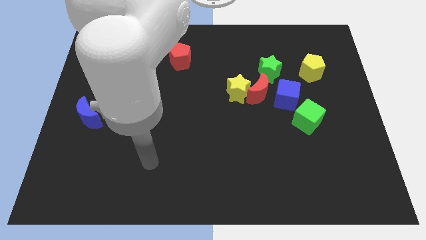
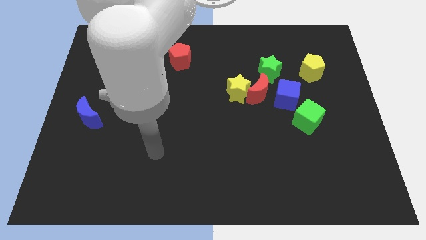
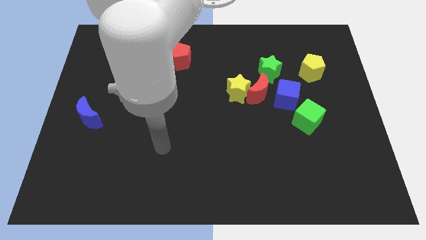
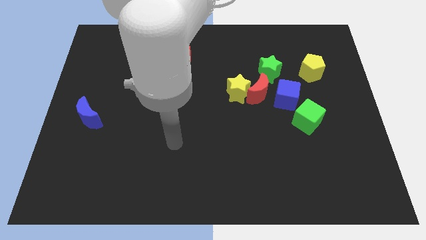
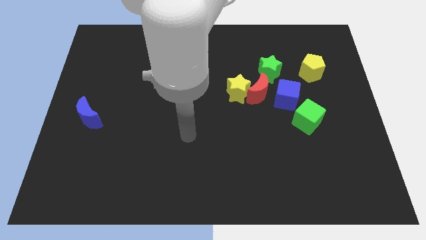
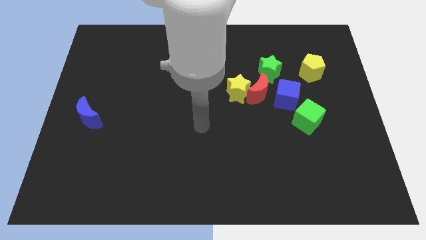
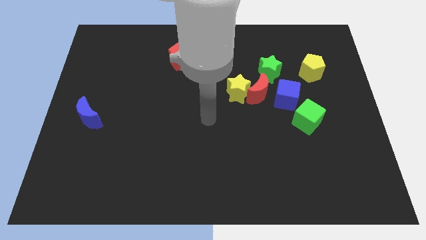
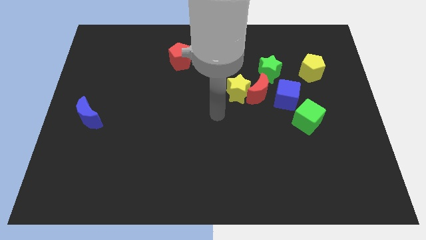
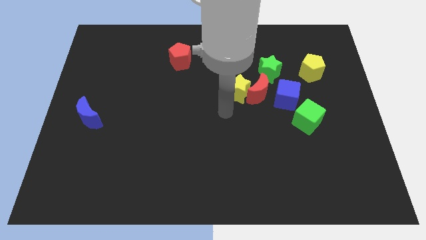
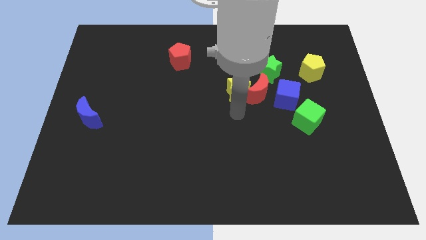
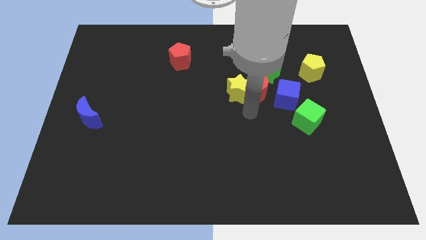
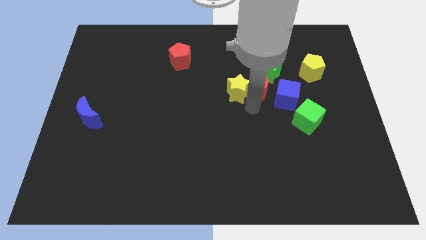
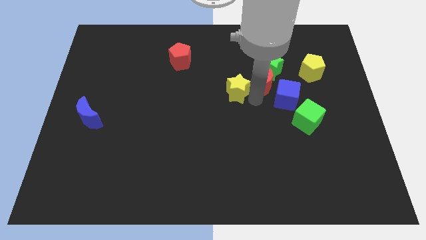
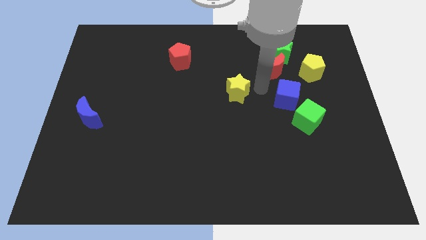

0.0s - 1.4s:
move the yellow star away from the red moon

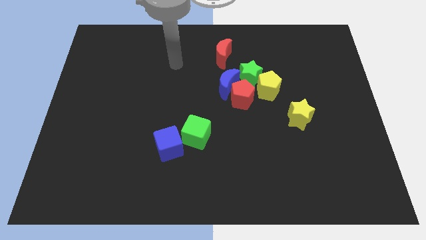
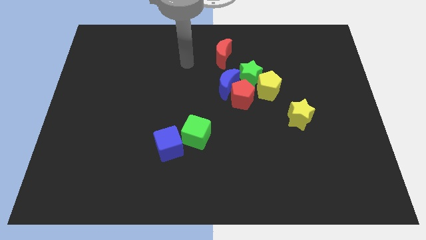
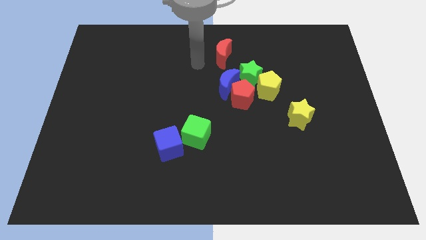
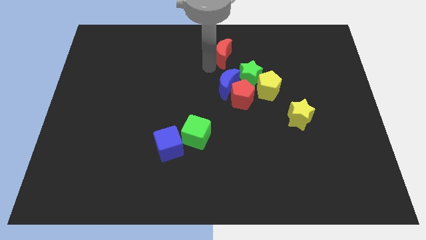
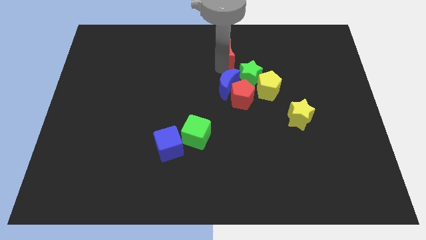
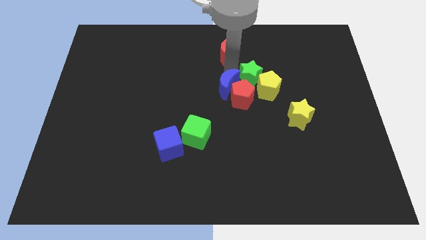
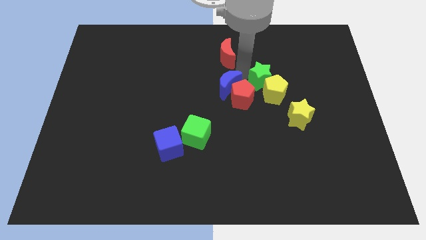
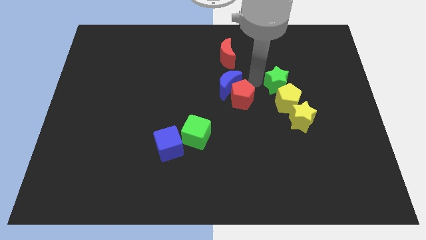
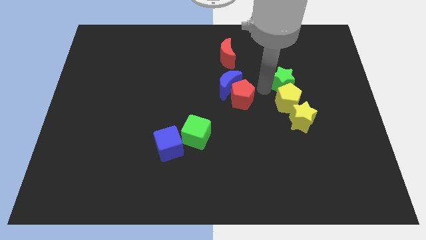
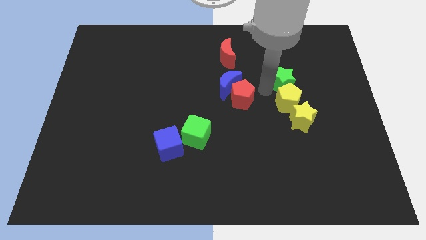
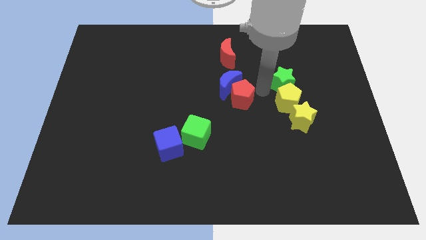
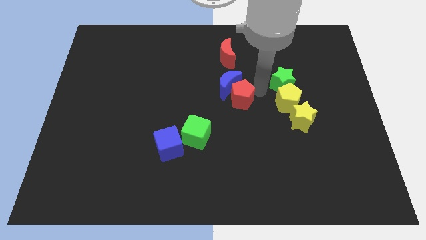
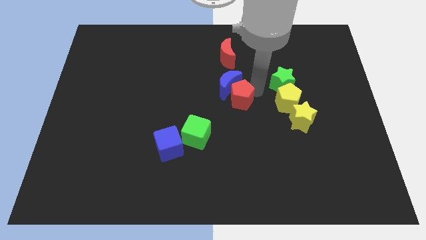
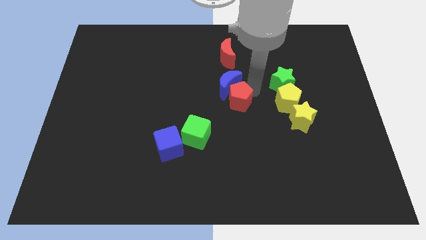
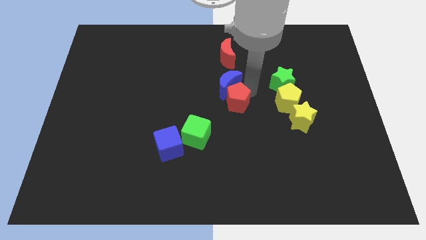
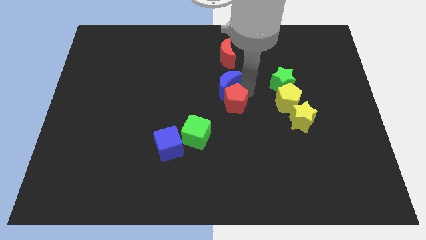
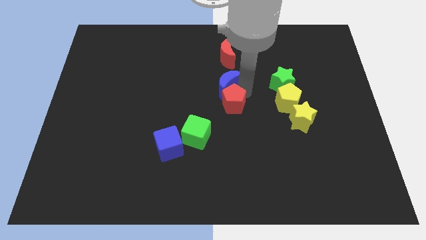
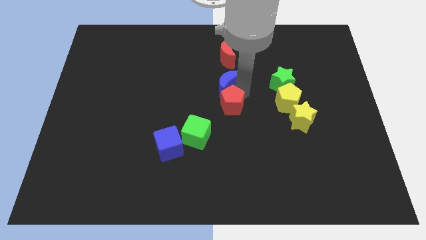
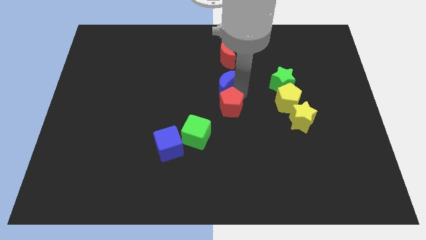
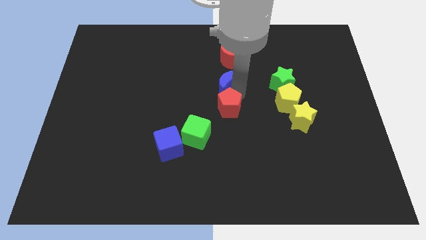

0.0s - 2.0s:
move the red pentagon away from the group

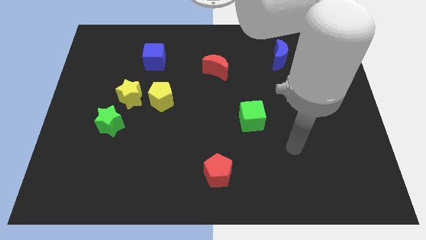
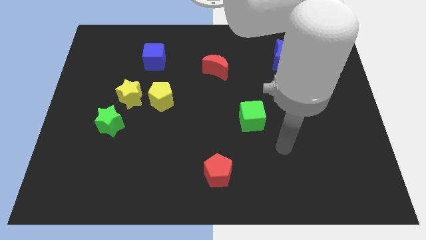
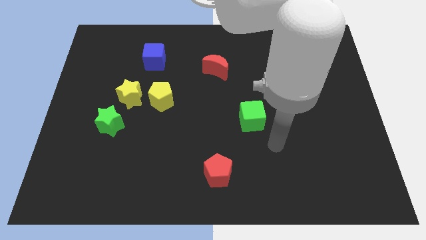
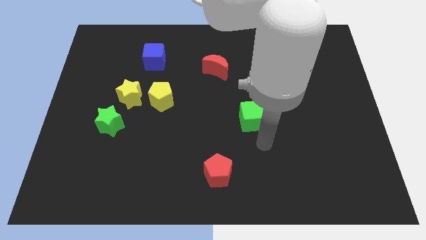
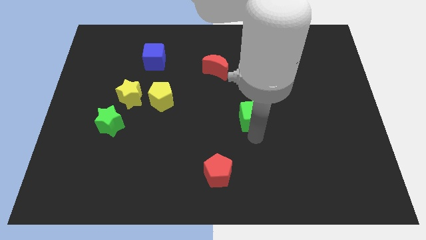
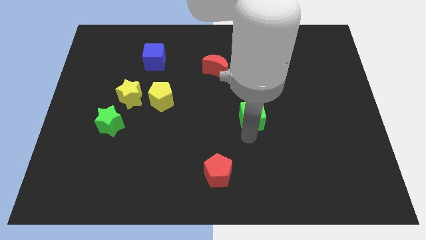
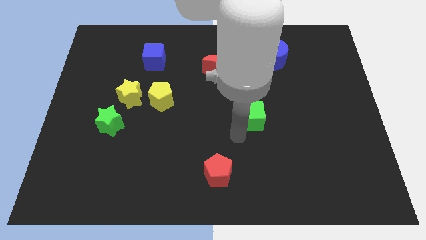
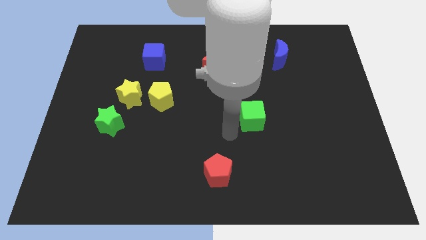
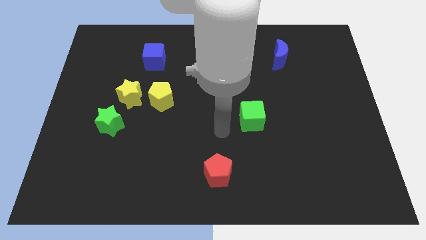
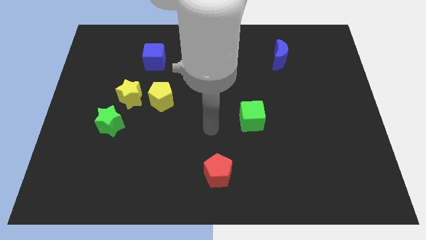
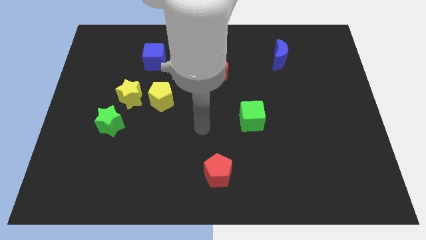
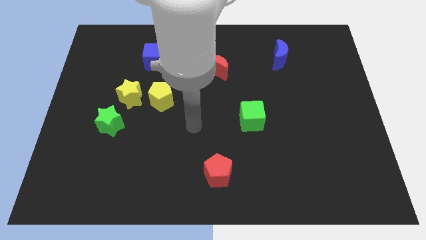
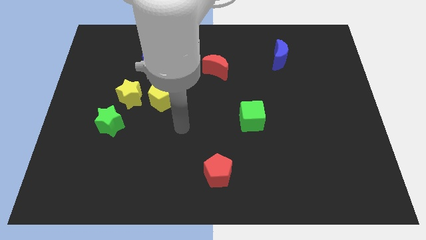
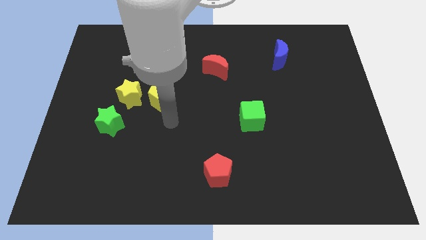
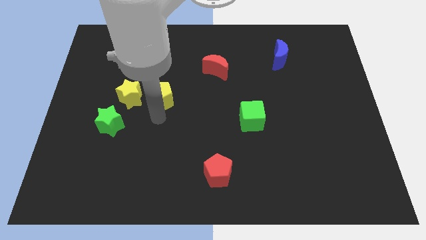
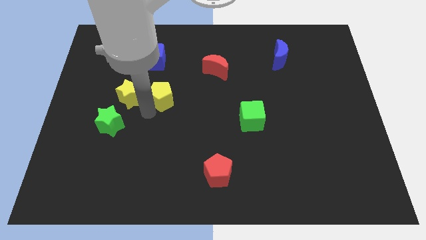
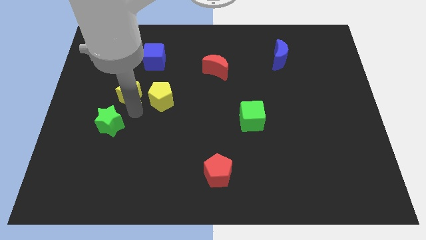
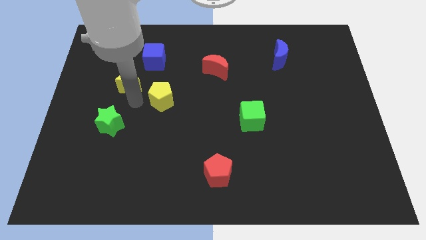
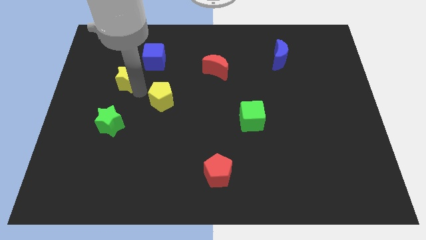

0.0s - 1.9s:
separate the yellow pentagon from the yellow star

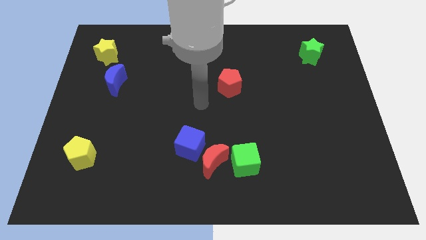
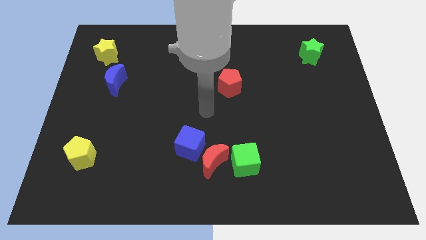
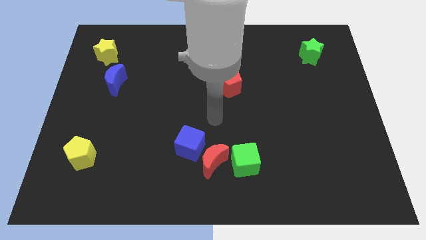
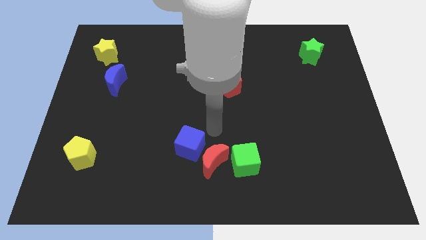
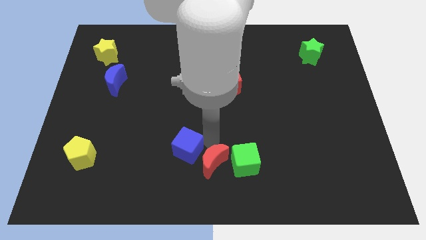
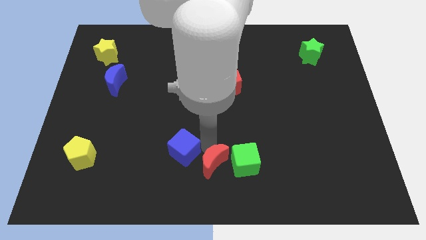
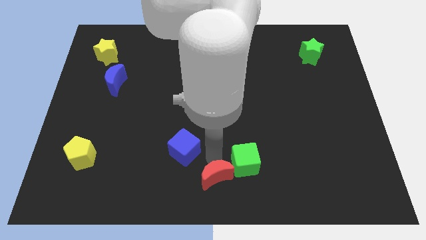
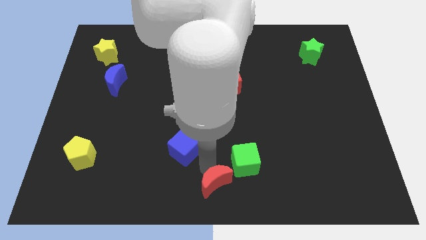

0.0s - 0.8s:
separate the blue cube from the red moon

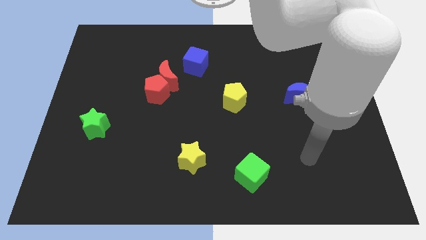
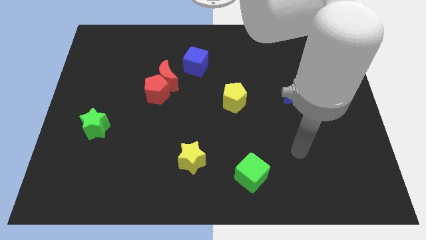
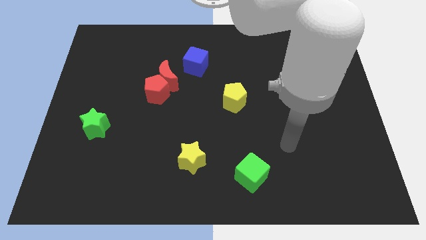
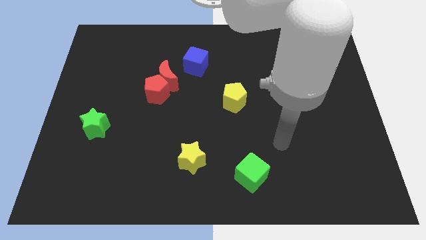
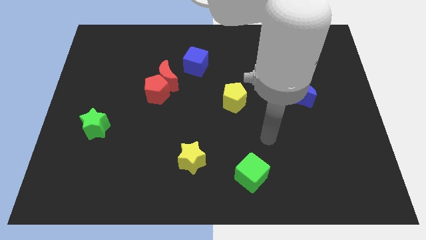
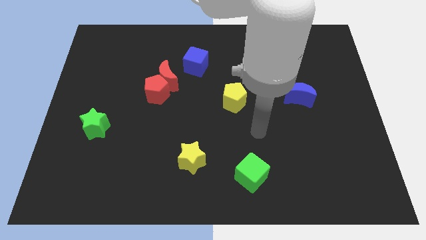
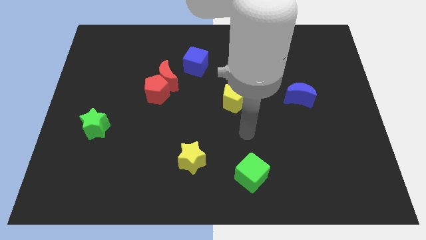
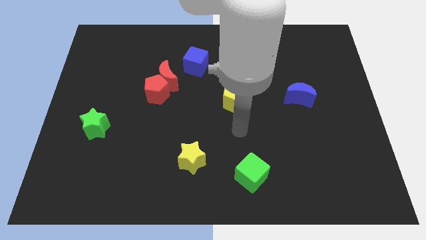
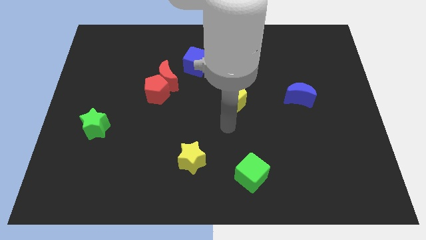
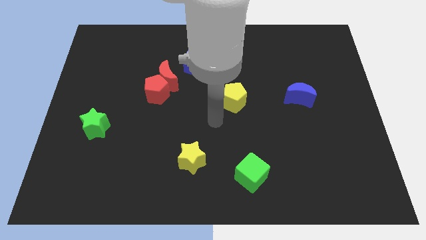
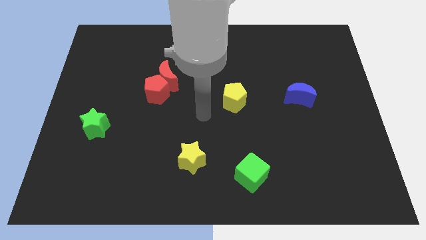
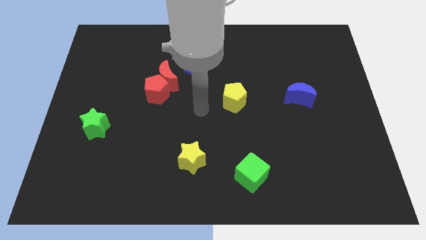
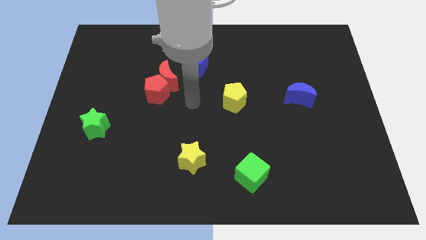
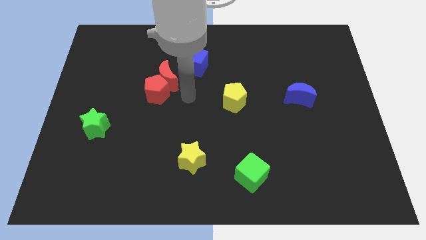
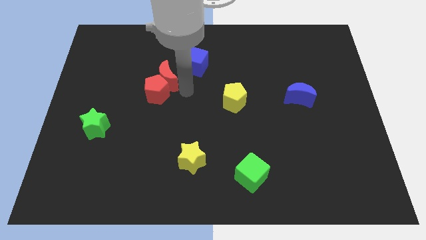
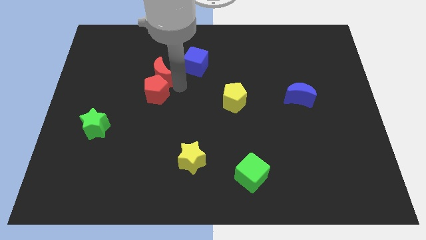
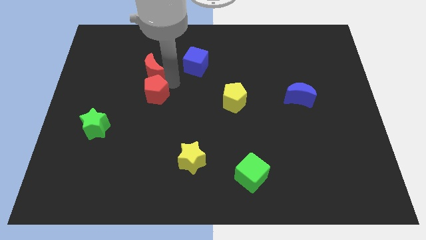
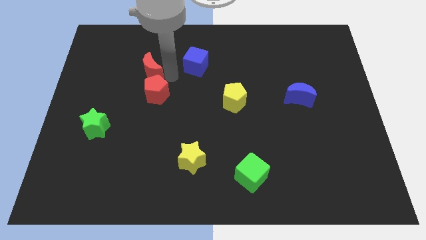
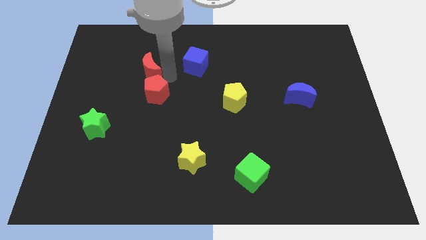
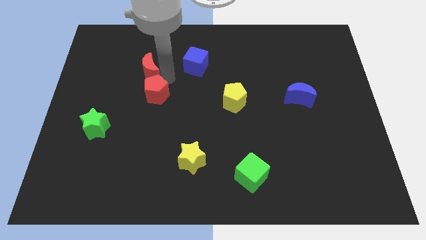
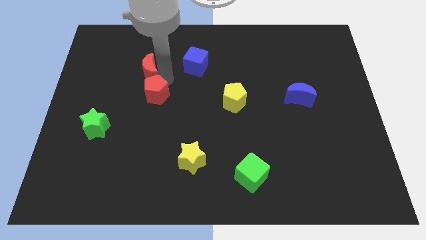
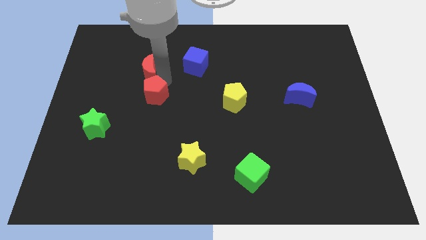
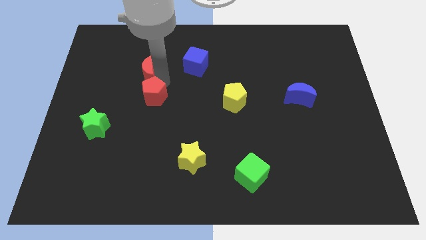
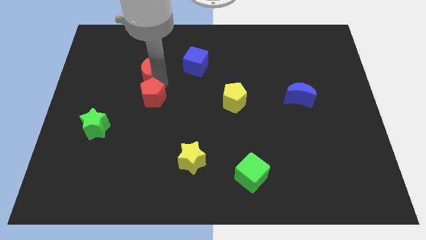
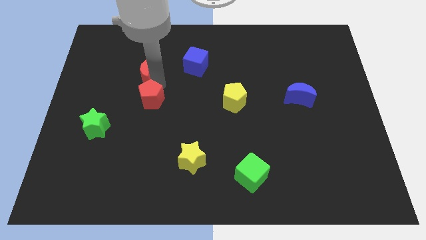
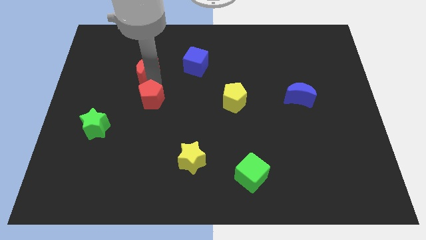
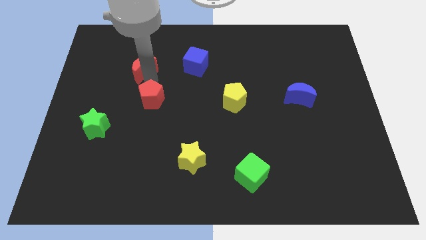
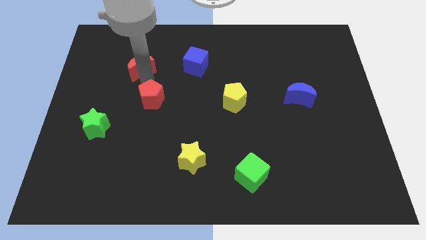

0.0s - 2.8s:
pull the red pentagon apart from the red moon

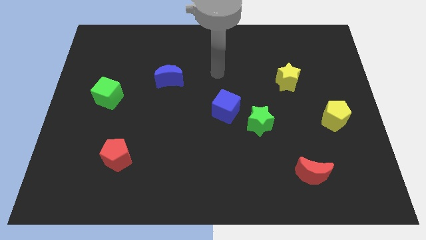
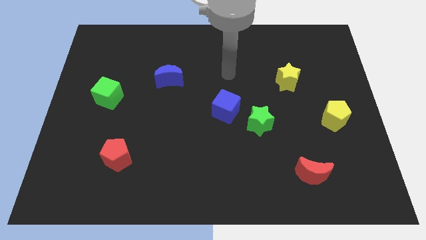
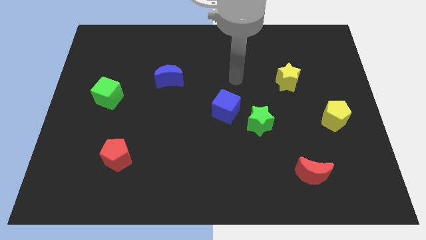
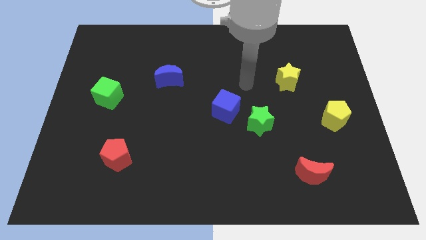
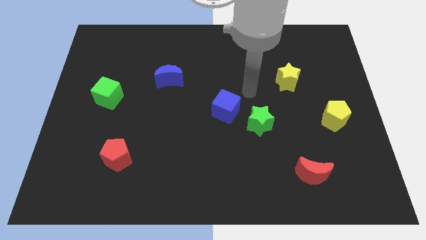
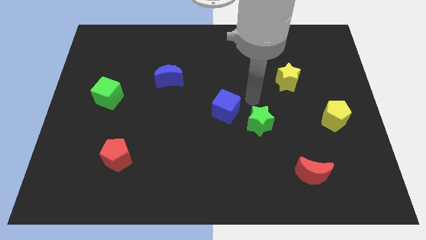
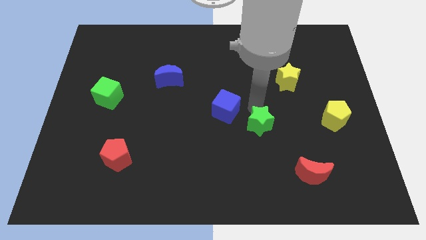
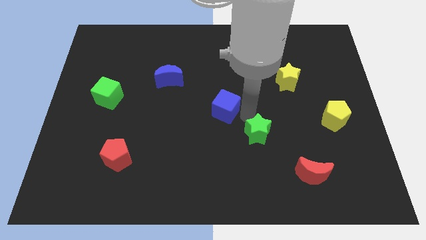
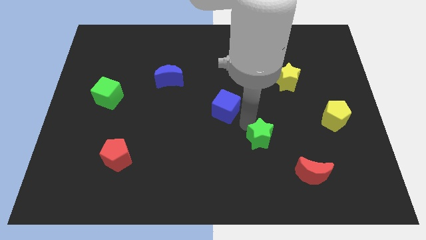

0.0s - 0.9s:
separate the blue cube from the green star
